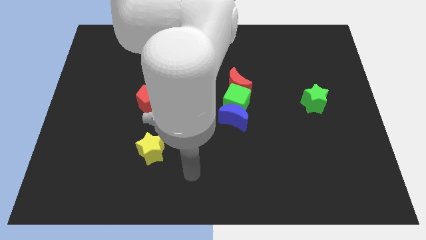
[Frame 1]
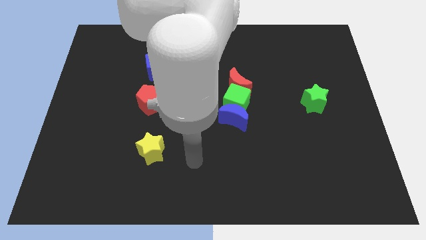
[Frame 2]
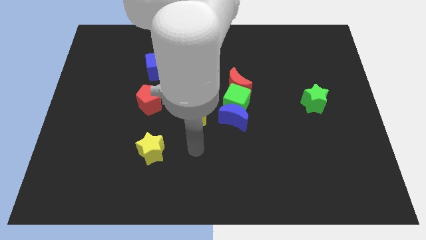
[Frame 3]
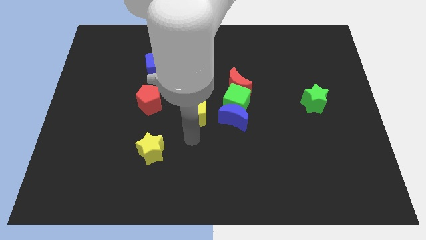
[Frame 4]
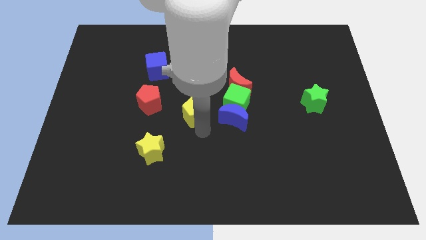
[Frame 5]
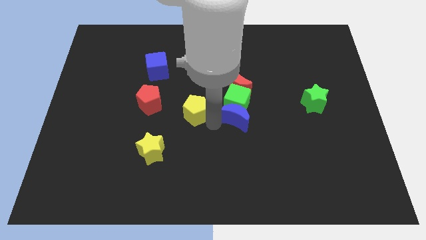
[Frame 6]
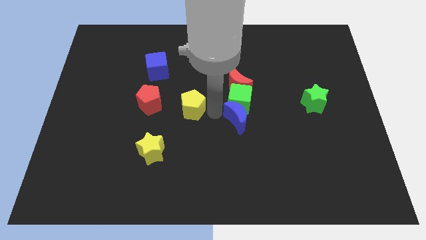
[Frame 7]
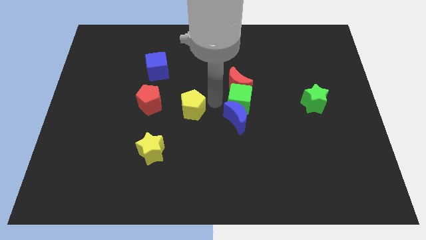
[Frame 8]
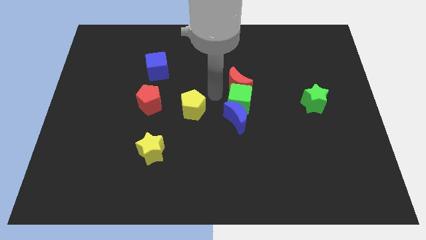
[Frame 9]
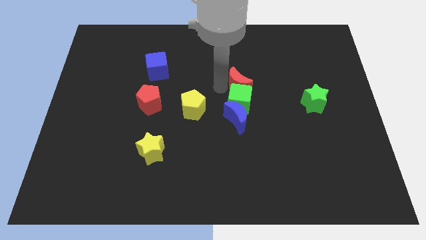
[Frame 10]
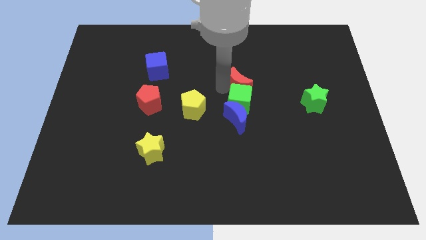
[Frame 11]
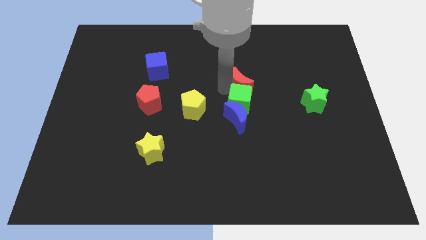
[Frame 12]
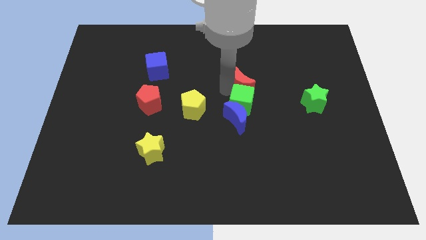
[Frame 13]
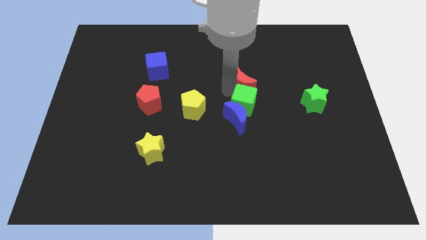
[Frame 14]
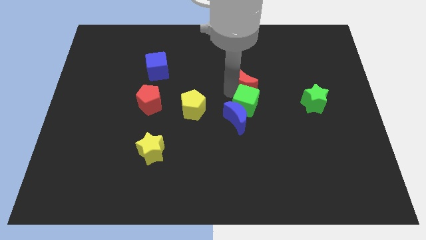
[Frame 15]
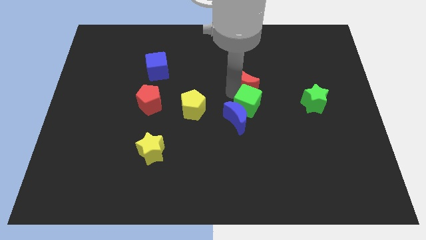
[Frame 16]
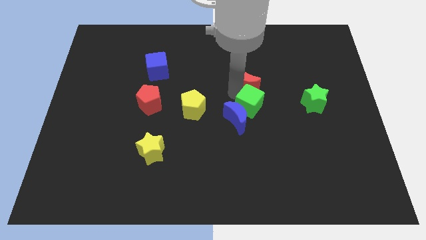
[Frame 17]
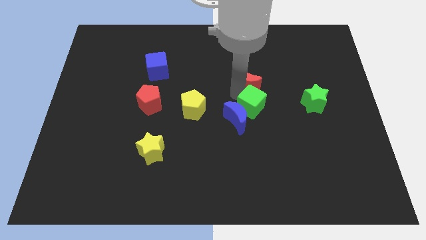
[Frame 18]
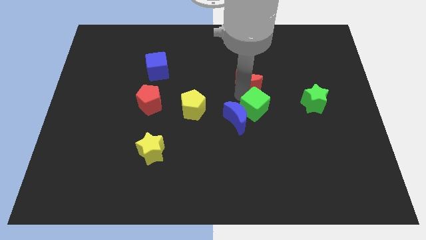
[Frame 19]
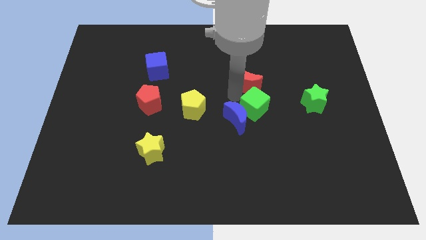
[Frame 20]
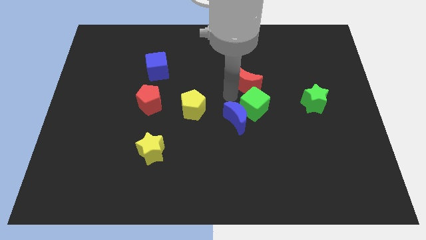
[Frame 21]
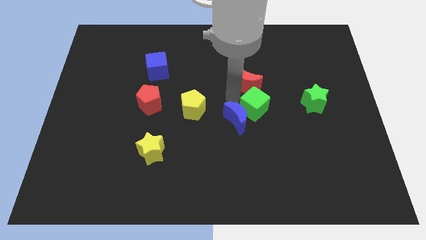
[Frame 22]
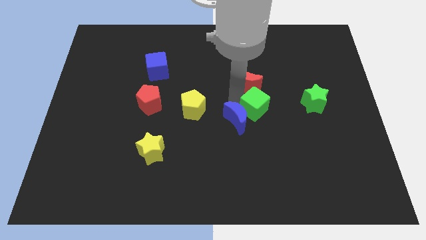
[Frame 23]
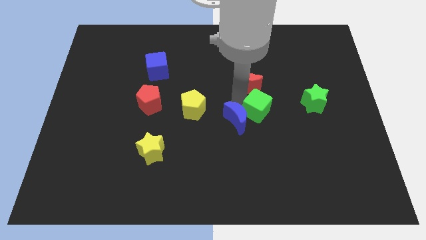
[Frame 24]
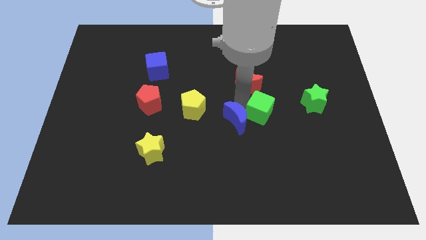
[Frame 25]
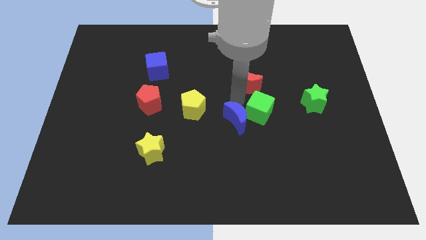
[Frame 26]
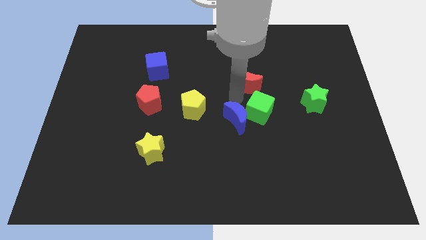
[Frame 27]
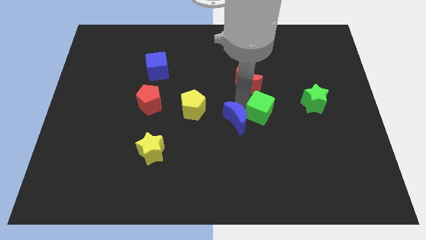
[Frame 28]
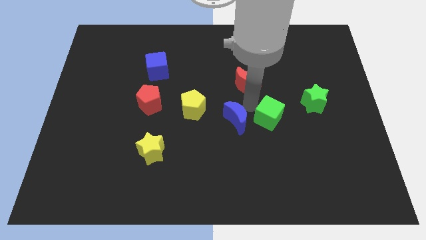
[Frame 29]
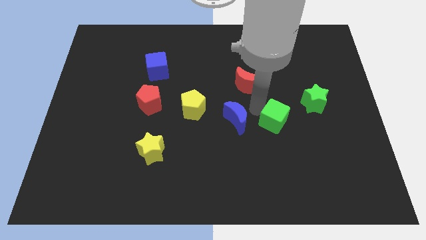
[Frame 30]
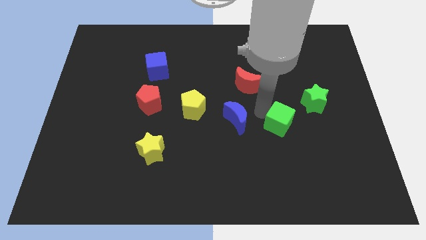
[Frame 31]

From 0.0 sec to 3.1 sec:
move the green cube away from the blue moon and red moon

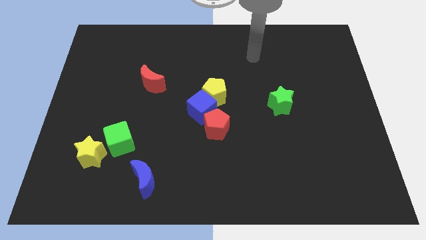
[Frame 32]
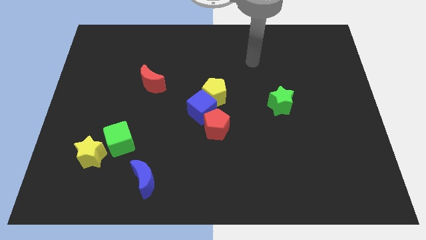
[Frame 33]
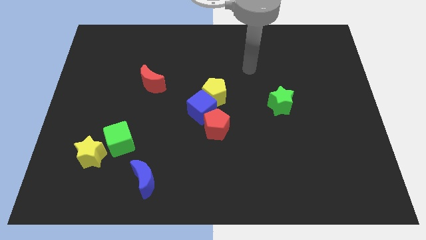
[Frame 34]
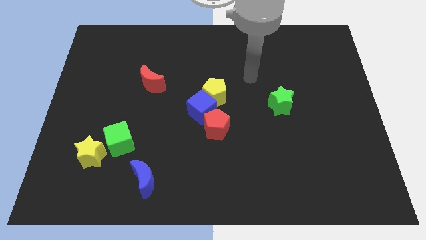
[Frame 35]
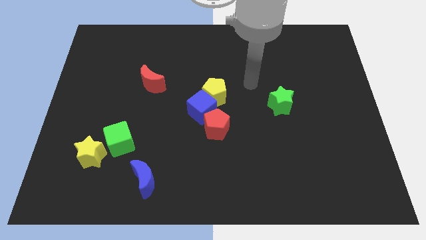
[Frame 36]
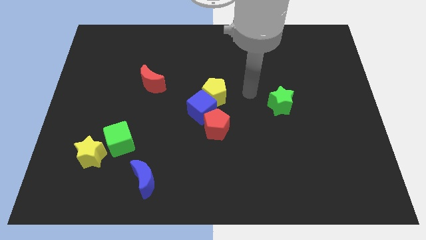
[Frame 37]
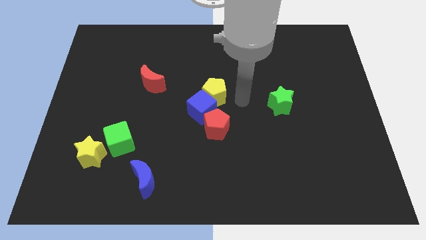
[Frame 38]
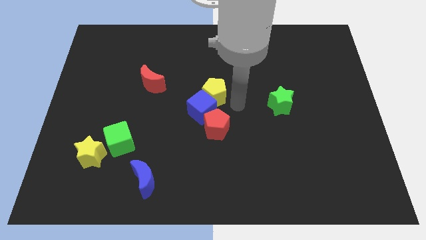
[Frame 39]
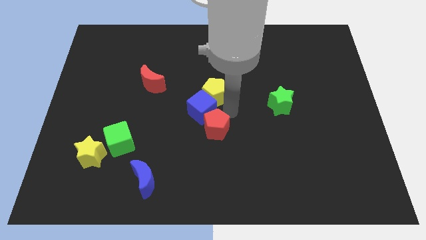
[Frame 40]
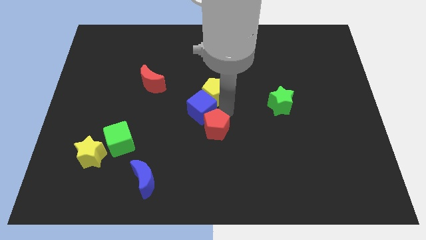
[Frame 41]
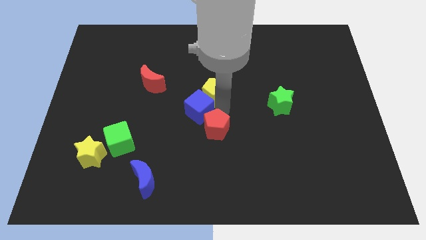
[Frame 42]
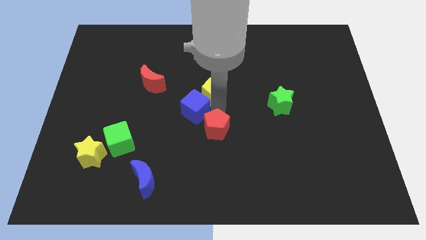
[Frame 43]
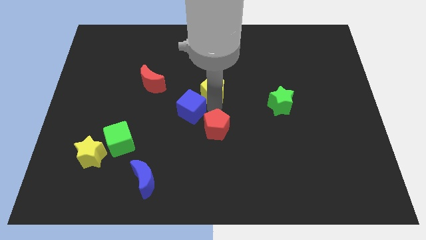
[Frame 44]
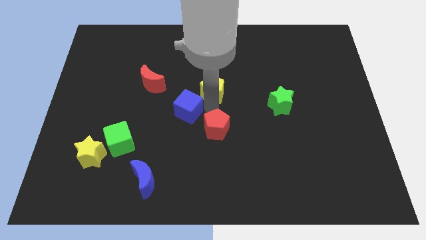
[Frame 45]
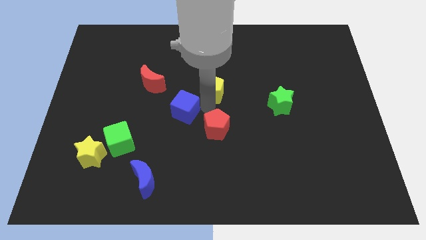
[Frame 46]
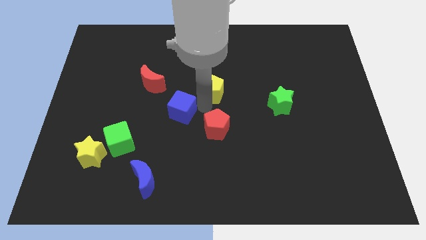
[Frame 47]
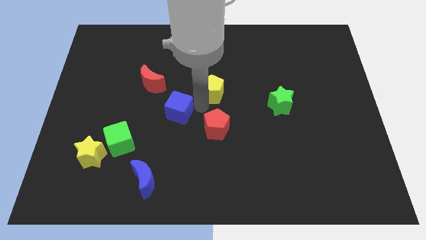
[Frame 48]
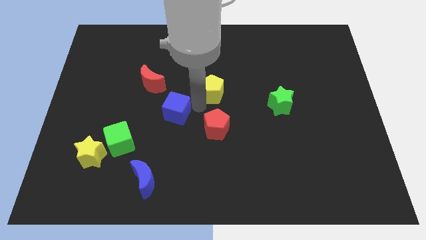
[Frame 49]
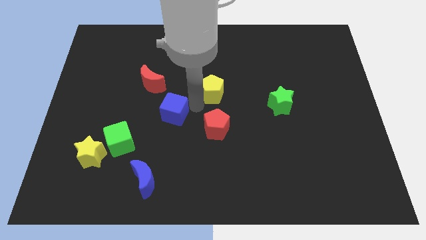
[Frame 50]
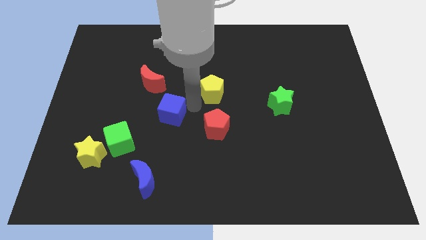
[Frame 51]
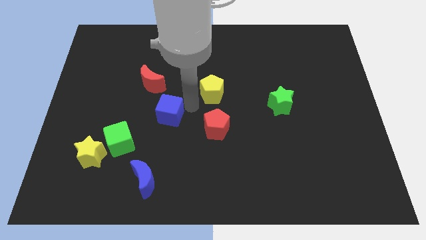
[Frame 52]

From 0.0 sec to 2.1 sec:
pull the blue cube apart from the yellow pentagon and red pentagon

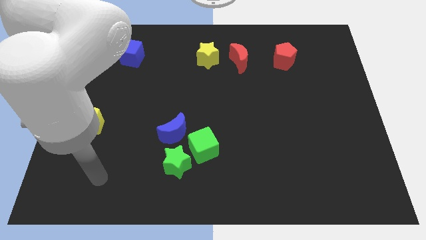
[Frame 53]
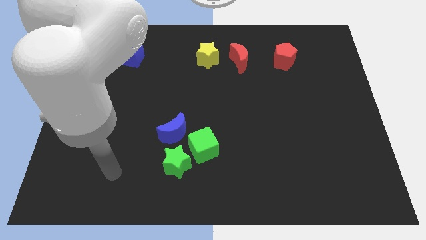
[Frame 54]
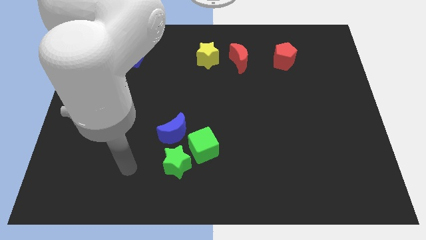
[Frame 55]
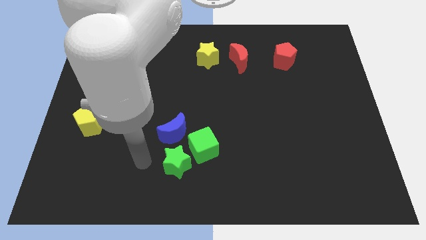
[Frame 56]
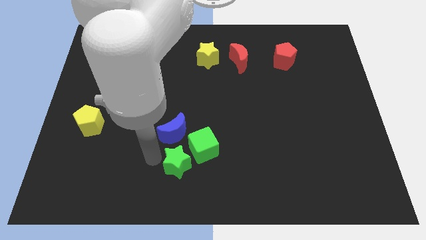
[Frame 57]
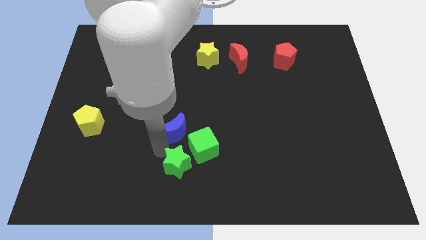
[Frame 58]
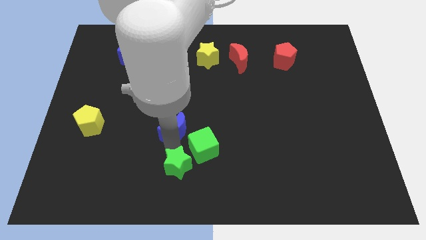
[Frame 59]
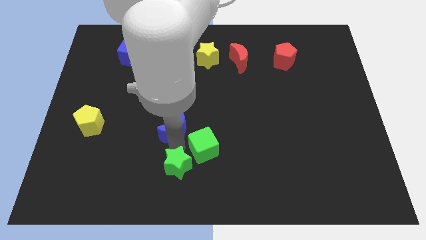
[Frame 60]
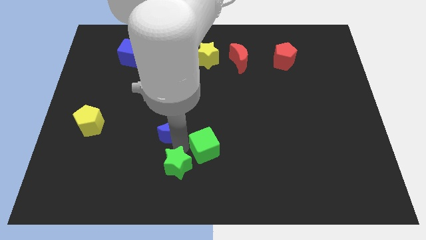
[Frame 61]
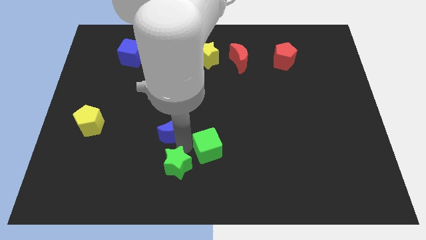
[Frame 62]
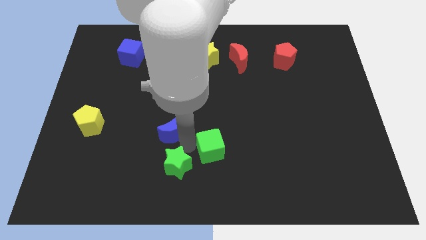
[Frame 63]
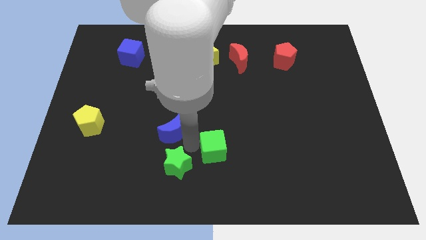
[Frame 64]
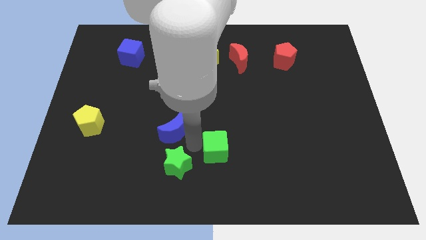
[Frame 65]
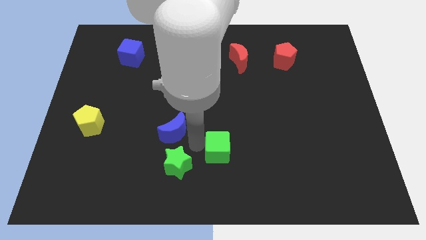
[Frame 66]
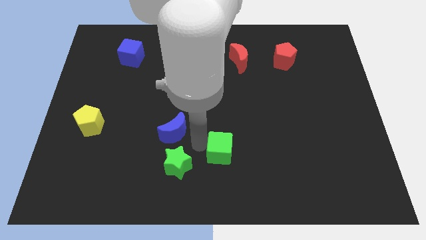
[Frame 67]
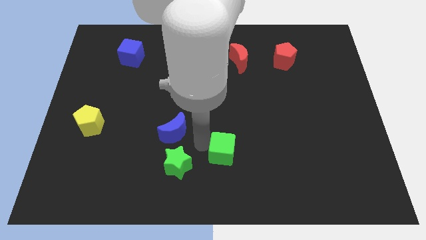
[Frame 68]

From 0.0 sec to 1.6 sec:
pull the green cube apart from the green star and blue moon

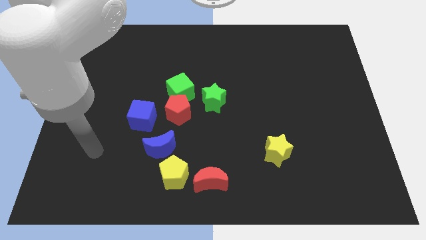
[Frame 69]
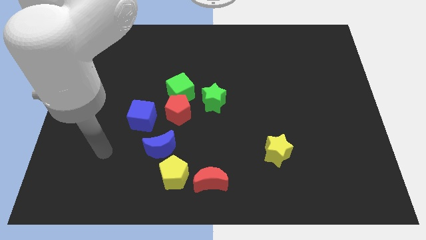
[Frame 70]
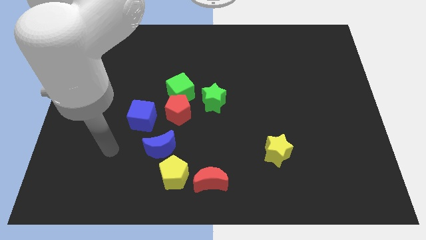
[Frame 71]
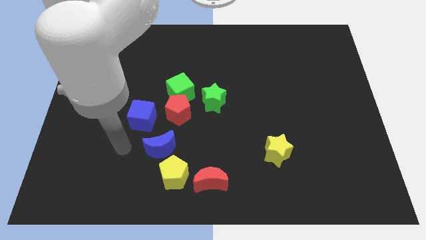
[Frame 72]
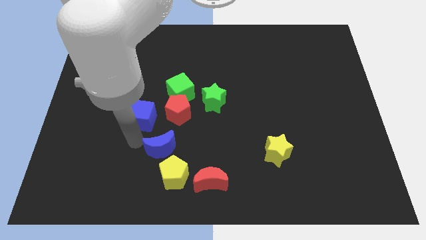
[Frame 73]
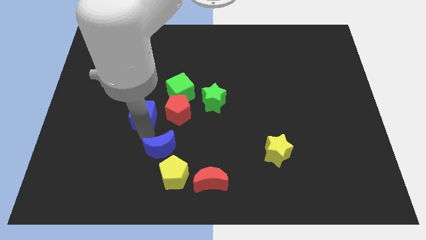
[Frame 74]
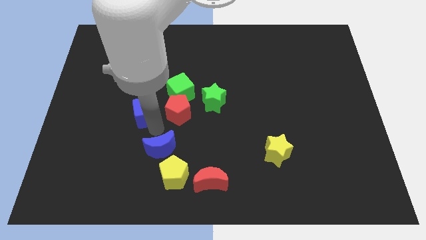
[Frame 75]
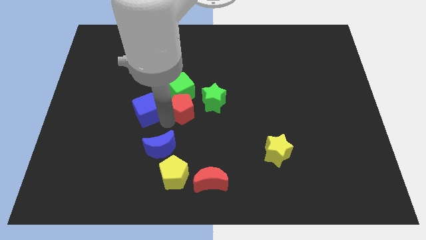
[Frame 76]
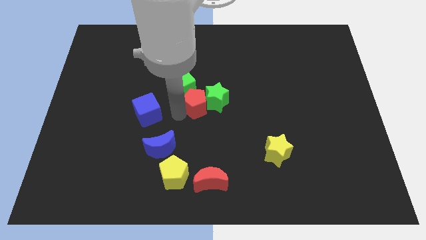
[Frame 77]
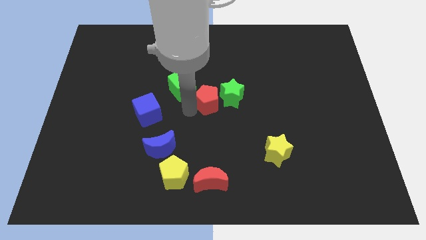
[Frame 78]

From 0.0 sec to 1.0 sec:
pull the green cube apart from the red pentagon and green star

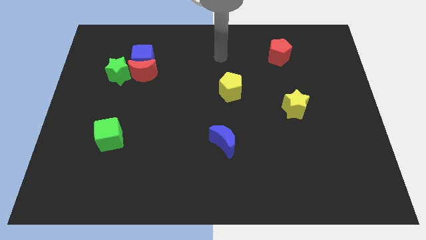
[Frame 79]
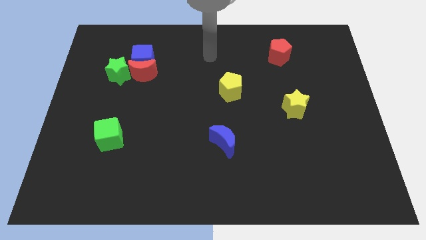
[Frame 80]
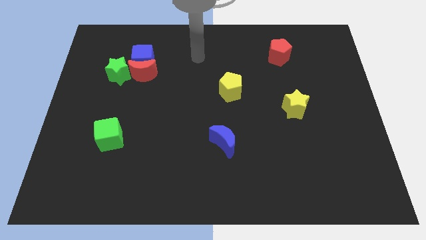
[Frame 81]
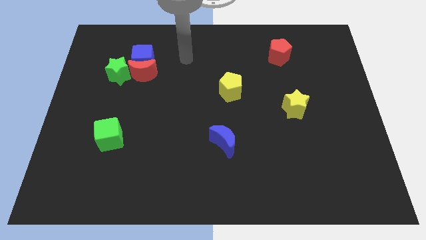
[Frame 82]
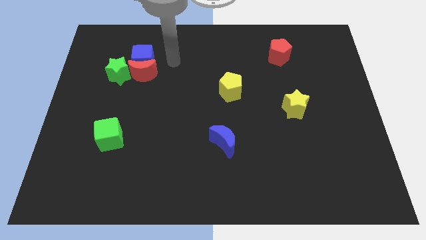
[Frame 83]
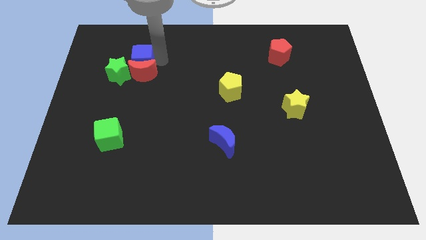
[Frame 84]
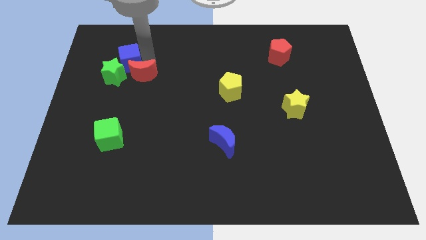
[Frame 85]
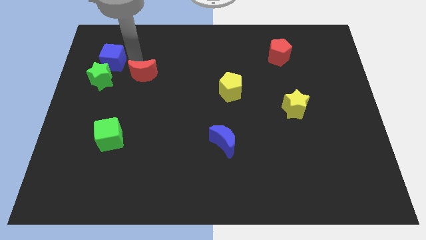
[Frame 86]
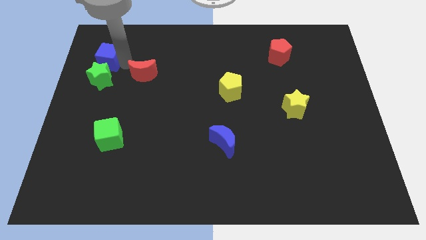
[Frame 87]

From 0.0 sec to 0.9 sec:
separate the red moon from the blue cube and green star

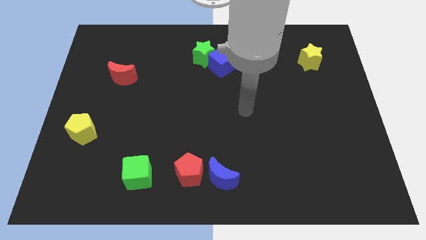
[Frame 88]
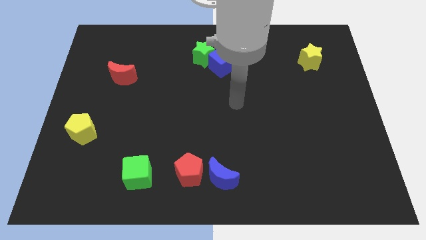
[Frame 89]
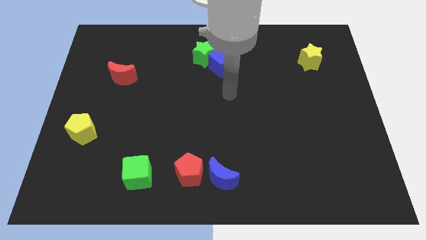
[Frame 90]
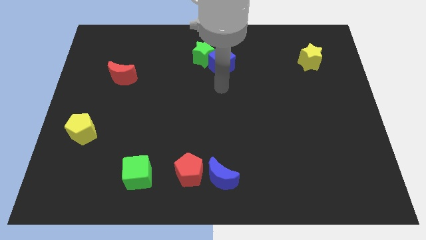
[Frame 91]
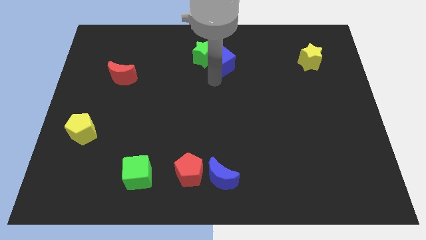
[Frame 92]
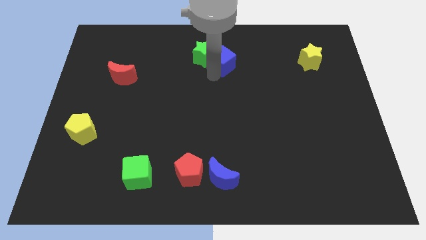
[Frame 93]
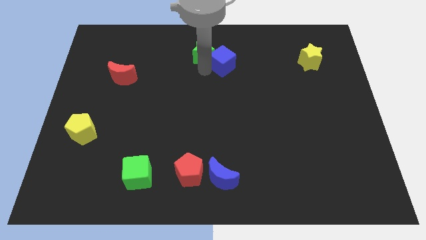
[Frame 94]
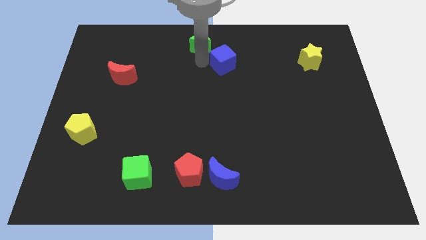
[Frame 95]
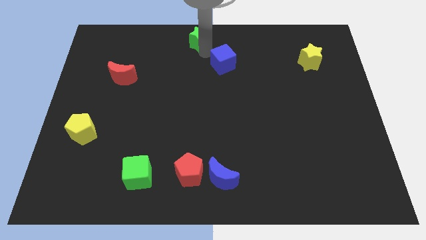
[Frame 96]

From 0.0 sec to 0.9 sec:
move the blue cube away from the green star
